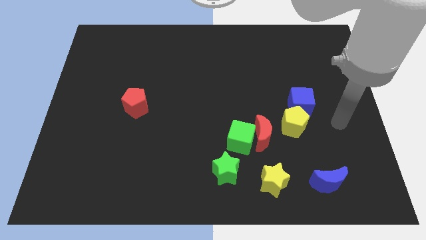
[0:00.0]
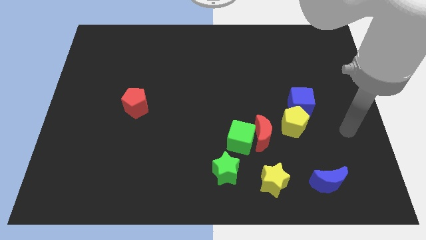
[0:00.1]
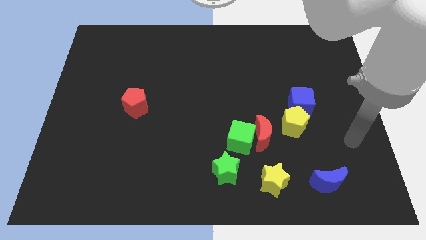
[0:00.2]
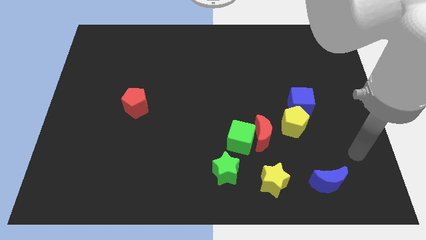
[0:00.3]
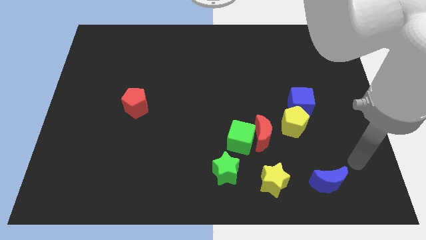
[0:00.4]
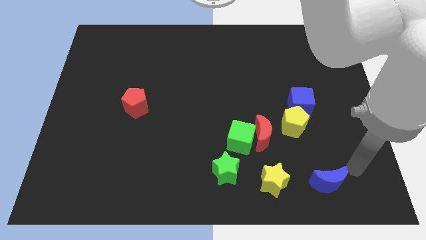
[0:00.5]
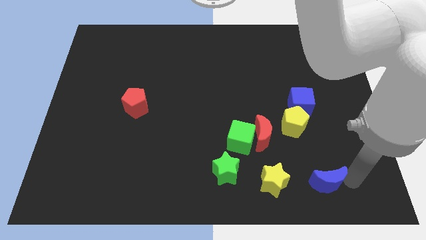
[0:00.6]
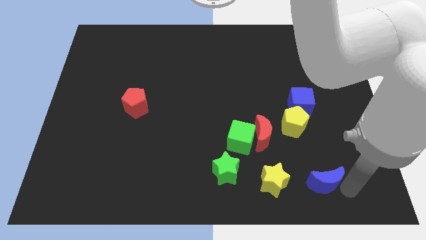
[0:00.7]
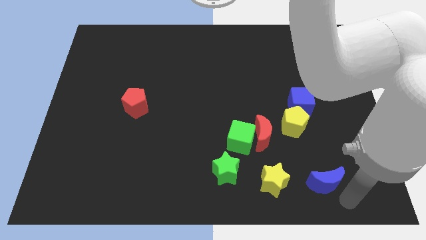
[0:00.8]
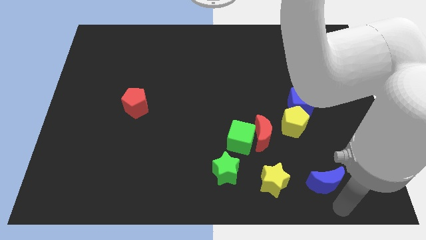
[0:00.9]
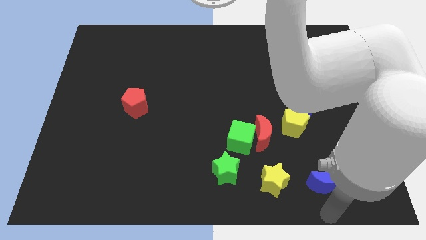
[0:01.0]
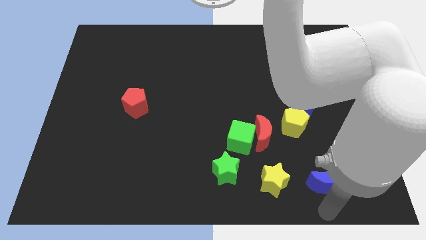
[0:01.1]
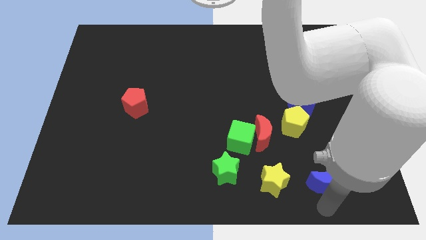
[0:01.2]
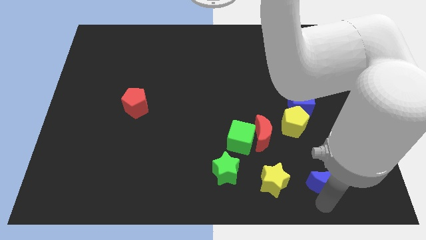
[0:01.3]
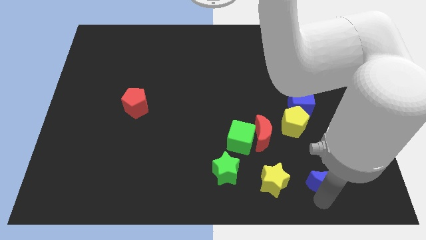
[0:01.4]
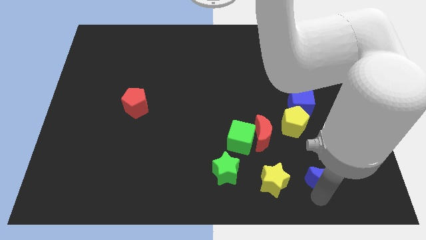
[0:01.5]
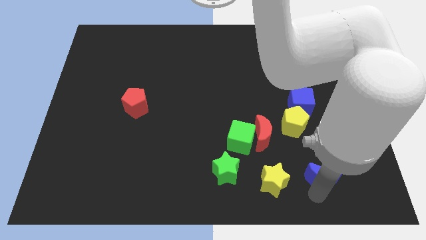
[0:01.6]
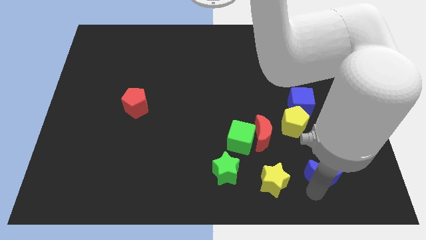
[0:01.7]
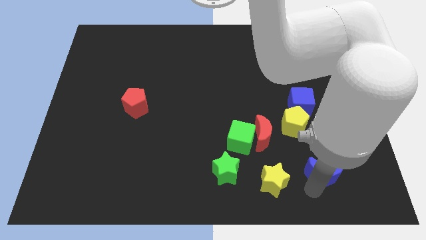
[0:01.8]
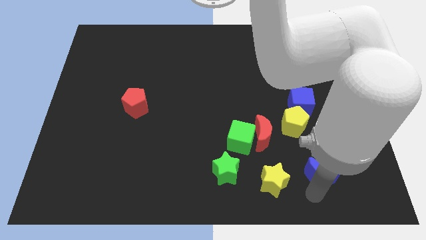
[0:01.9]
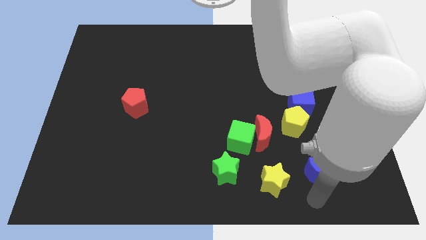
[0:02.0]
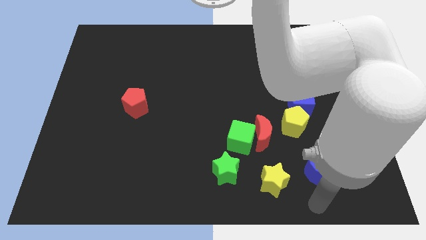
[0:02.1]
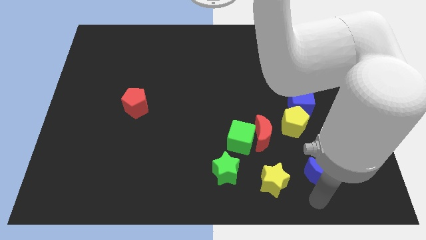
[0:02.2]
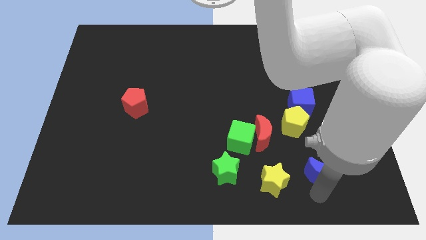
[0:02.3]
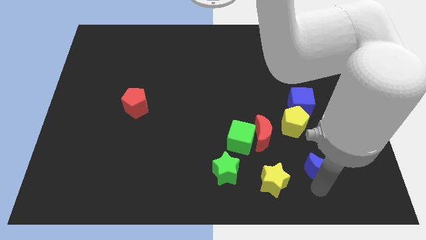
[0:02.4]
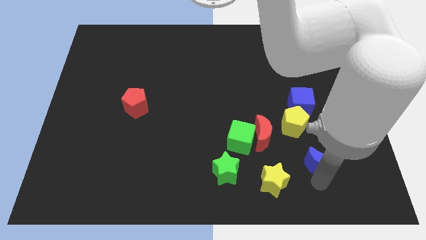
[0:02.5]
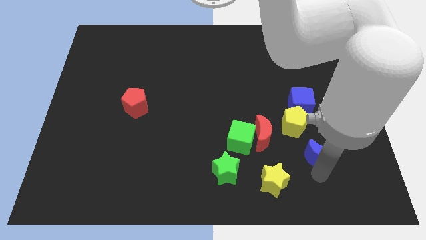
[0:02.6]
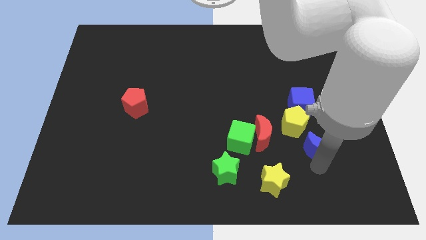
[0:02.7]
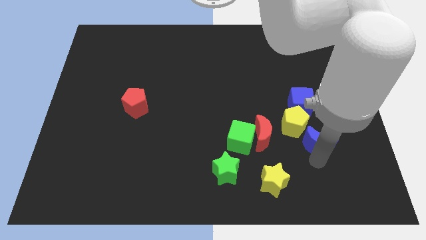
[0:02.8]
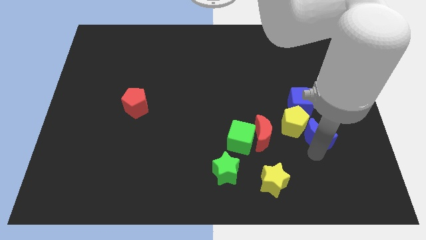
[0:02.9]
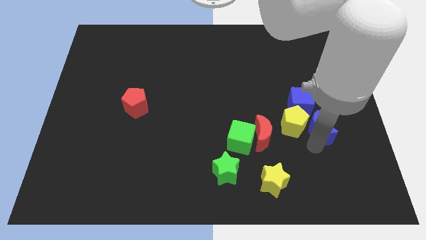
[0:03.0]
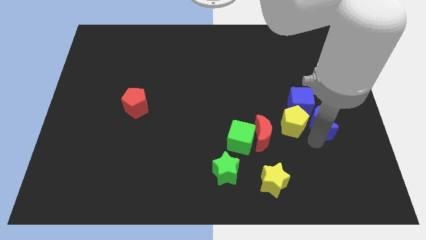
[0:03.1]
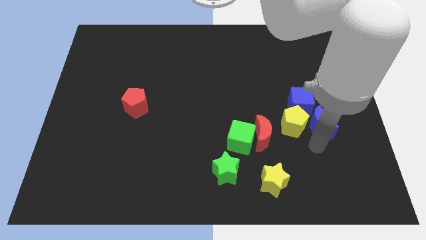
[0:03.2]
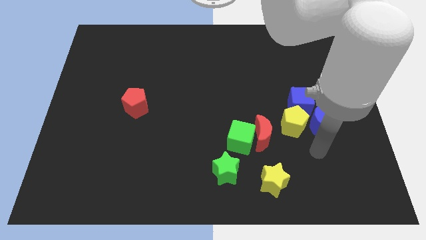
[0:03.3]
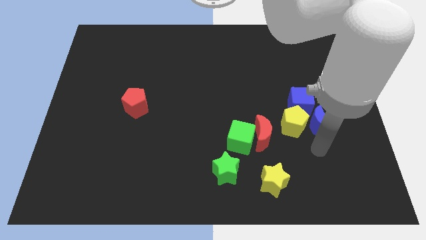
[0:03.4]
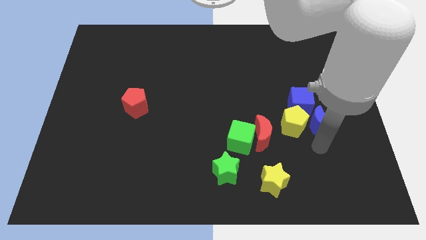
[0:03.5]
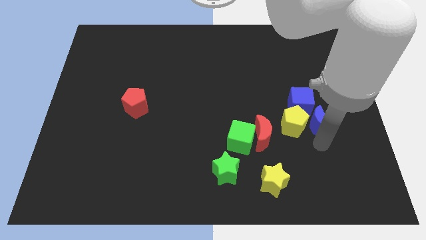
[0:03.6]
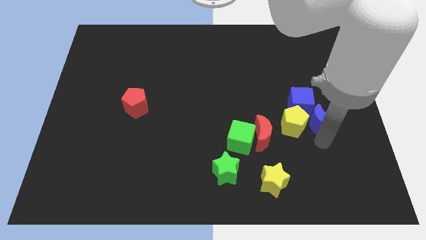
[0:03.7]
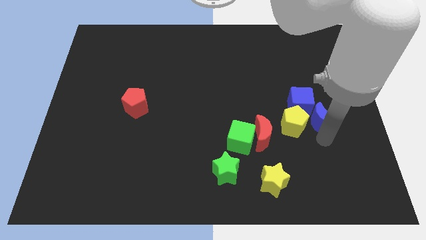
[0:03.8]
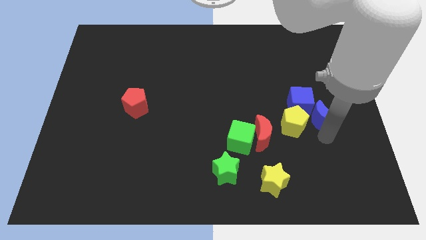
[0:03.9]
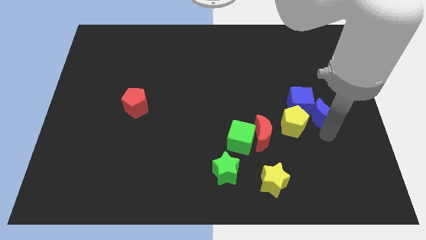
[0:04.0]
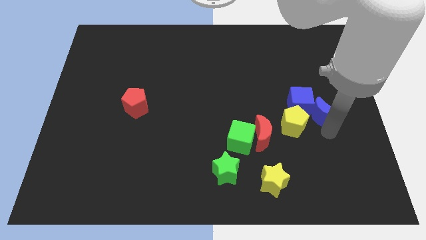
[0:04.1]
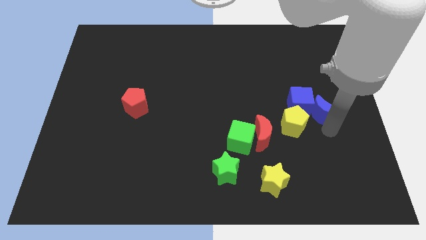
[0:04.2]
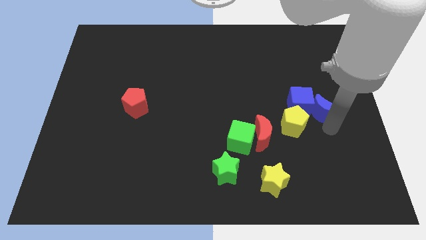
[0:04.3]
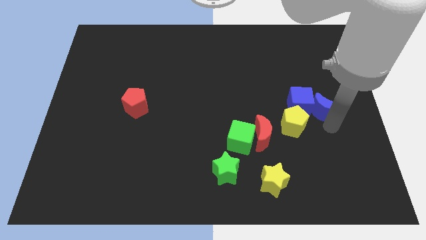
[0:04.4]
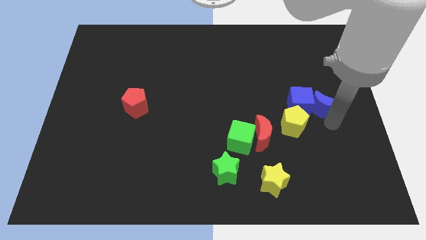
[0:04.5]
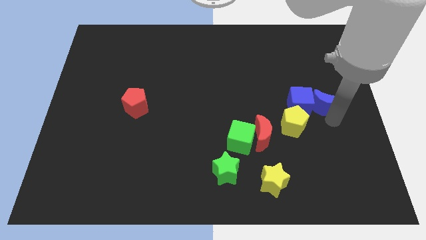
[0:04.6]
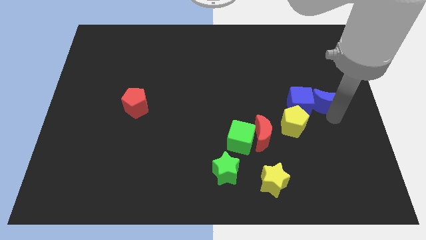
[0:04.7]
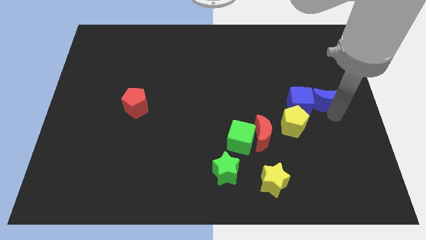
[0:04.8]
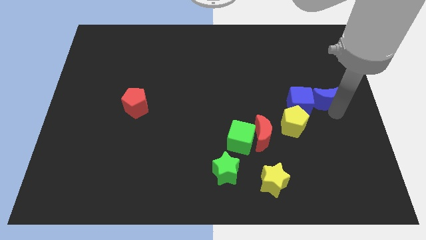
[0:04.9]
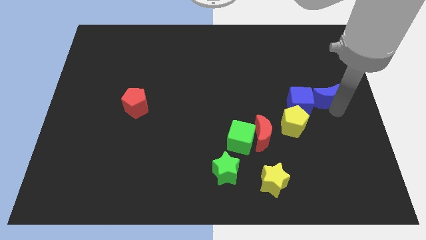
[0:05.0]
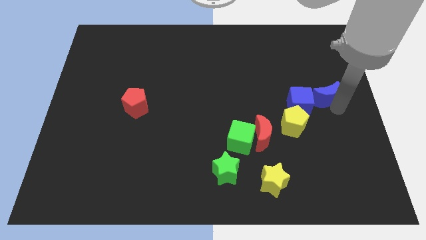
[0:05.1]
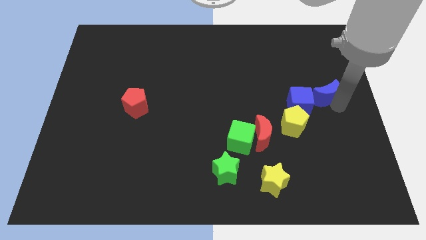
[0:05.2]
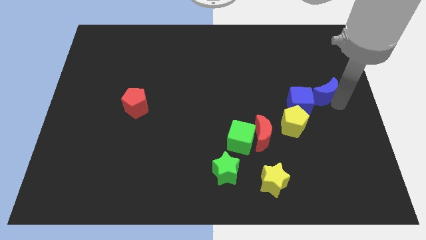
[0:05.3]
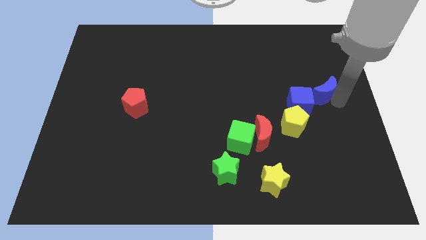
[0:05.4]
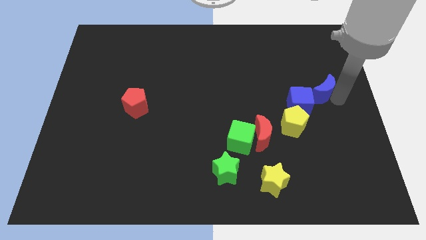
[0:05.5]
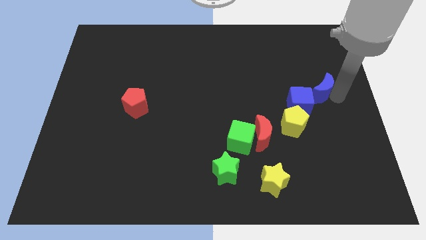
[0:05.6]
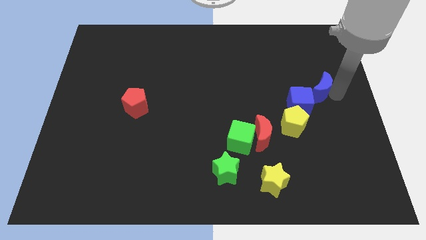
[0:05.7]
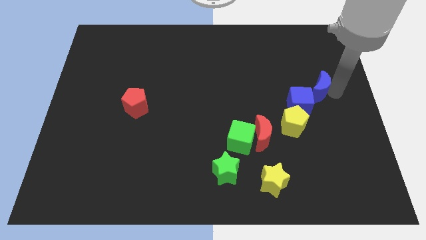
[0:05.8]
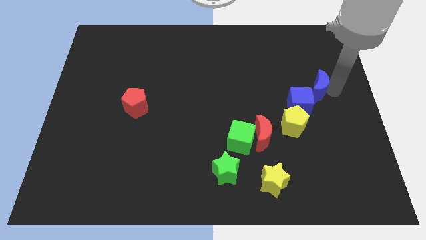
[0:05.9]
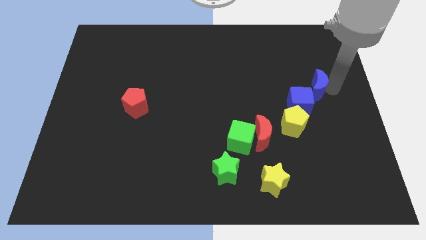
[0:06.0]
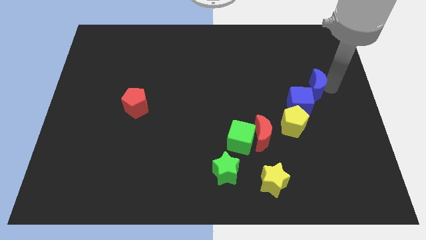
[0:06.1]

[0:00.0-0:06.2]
push the blue moon to the top of the blue cube
